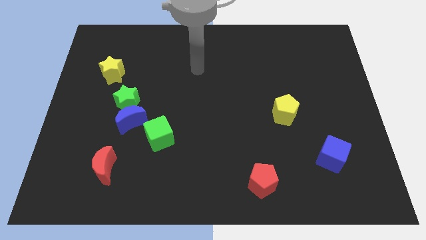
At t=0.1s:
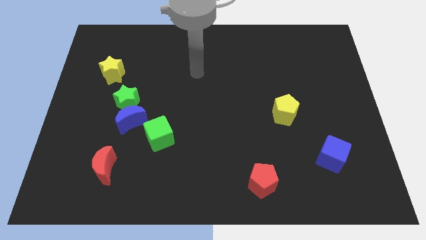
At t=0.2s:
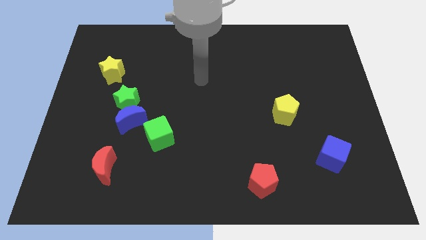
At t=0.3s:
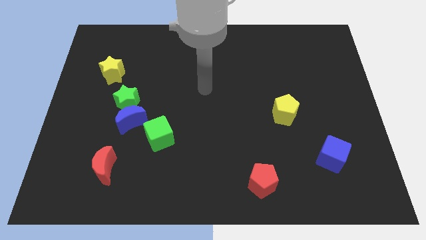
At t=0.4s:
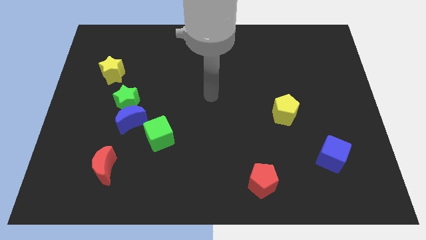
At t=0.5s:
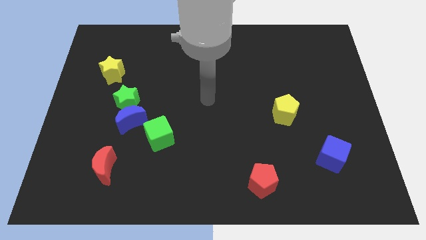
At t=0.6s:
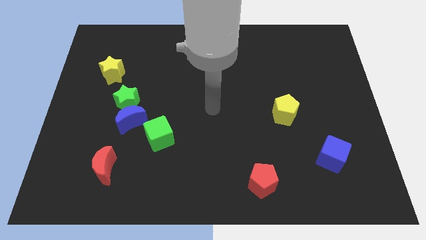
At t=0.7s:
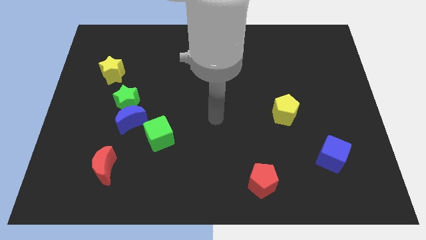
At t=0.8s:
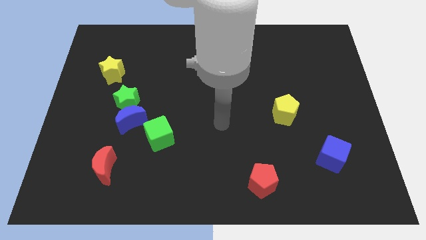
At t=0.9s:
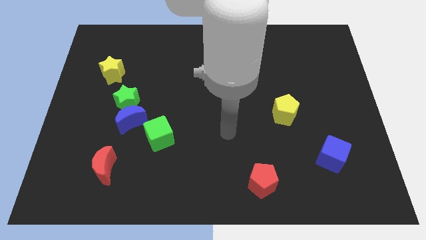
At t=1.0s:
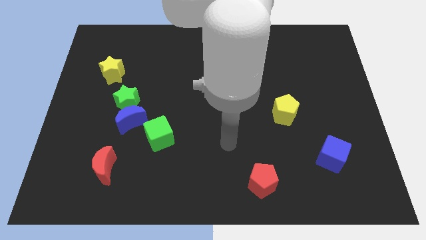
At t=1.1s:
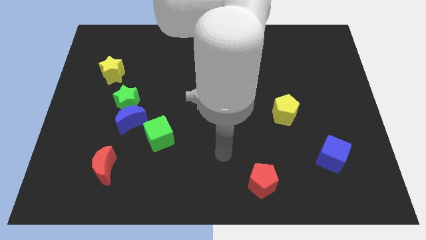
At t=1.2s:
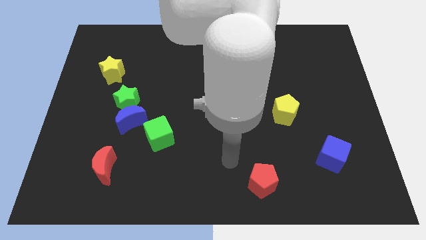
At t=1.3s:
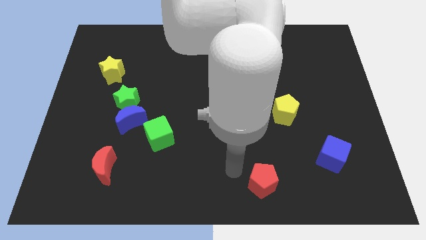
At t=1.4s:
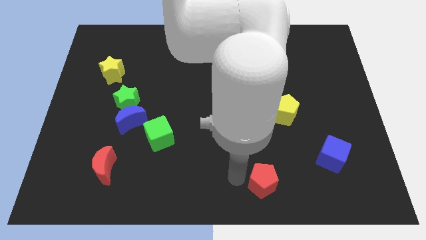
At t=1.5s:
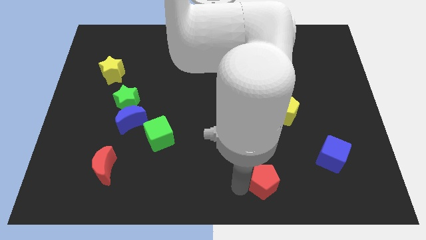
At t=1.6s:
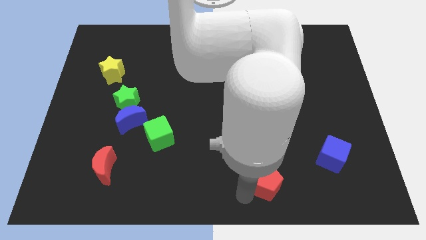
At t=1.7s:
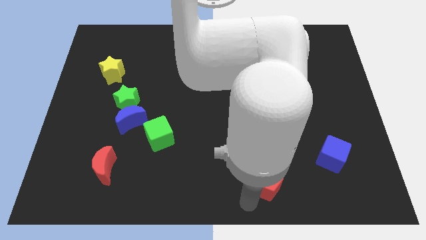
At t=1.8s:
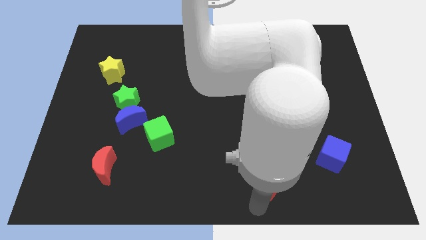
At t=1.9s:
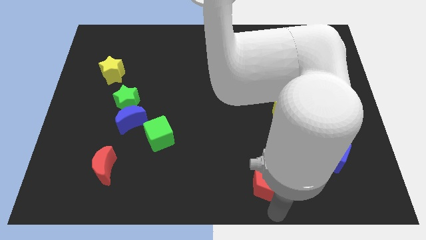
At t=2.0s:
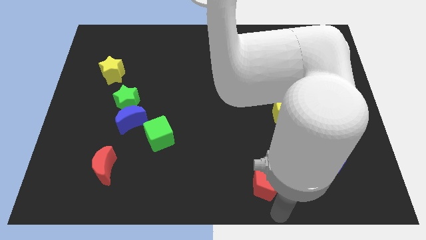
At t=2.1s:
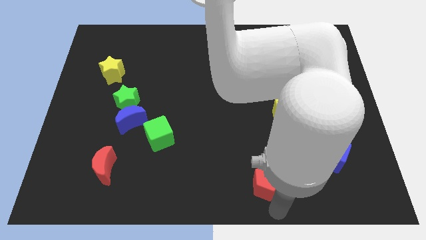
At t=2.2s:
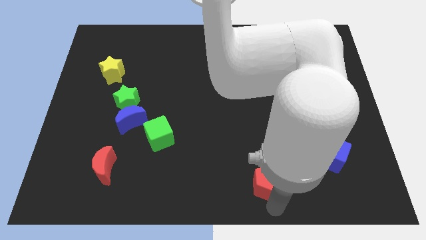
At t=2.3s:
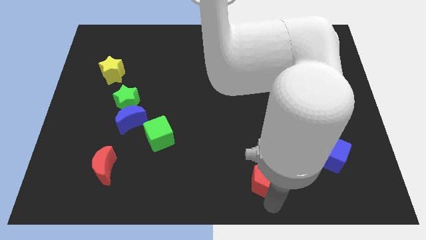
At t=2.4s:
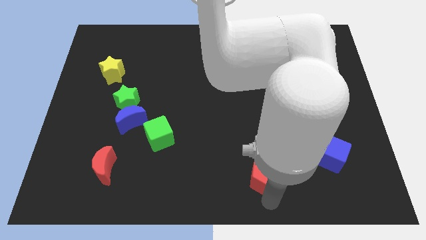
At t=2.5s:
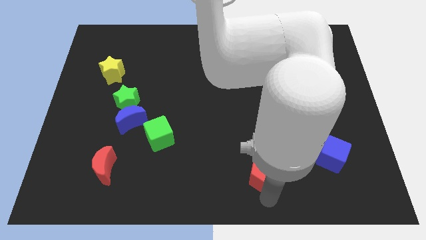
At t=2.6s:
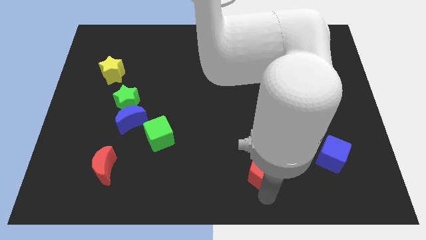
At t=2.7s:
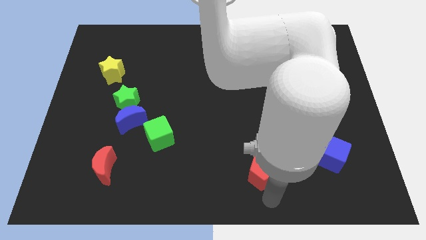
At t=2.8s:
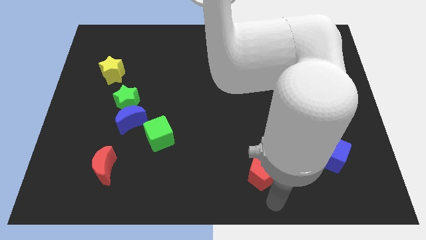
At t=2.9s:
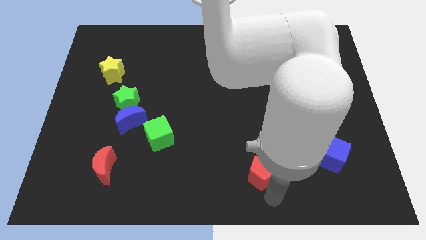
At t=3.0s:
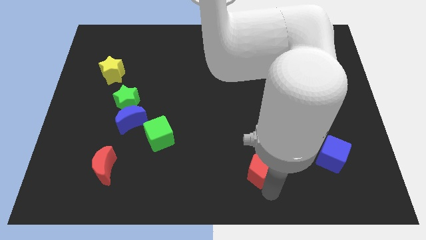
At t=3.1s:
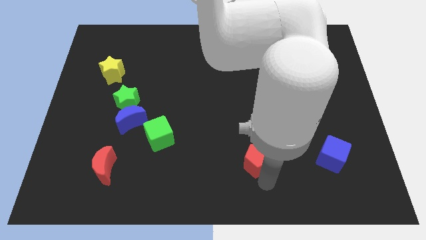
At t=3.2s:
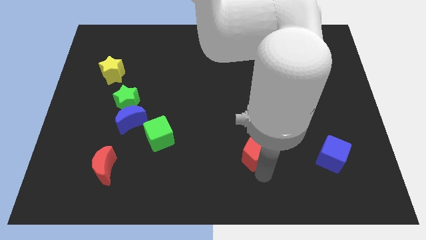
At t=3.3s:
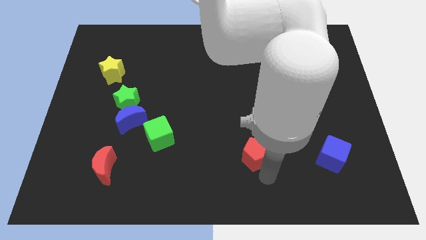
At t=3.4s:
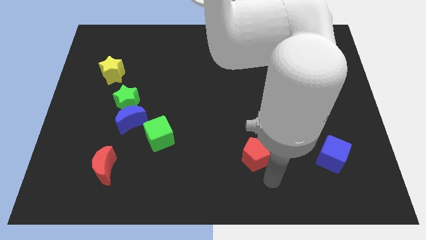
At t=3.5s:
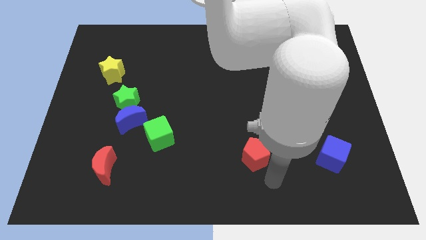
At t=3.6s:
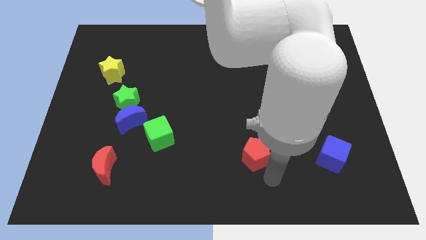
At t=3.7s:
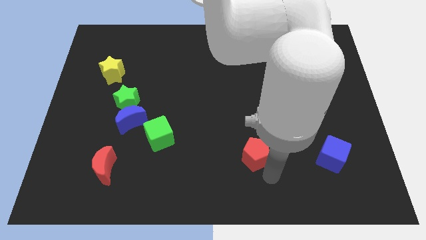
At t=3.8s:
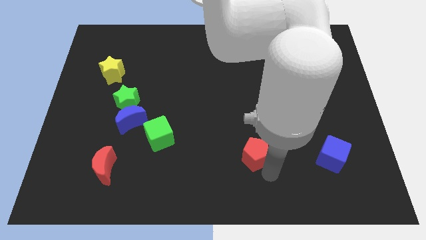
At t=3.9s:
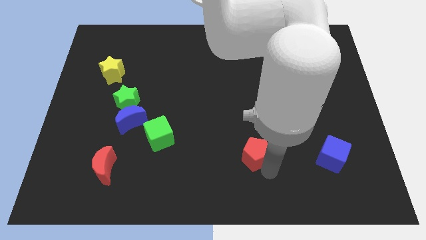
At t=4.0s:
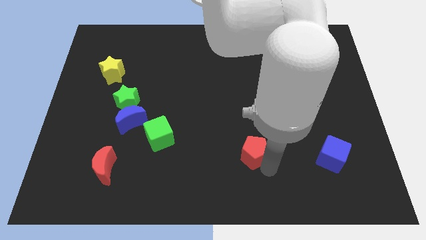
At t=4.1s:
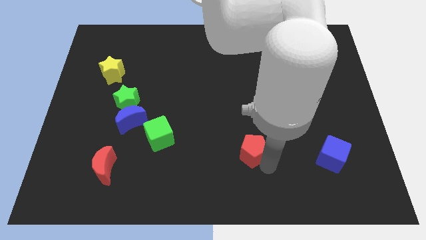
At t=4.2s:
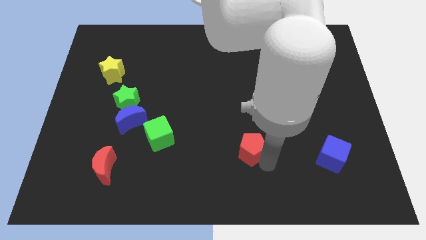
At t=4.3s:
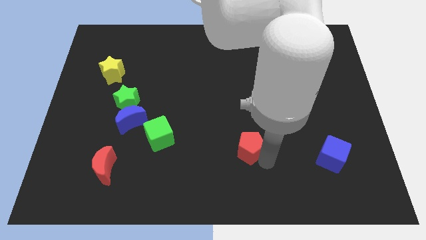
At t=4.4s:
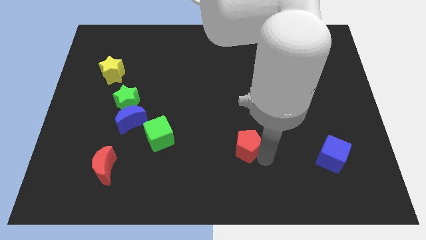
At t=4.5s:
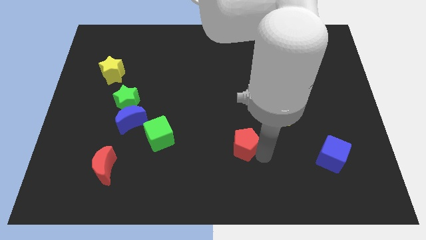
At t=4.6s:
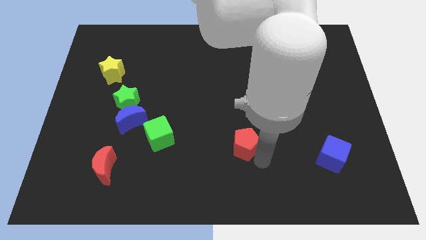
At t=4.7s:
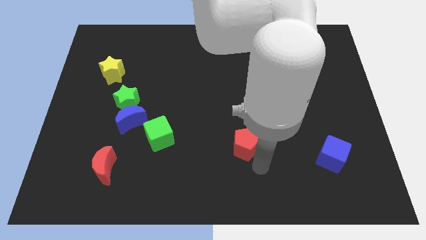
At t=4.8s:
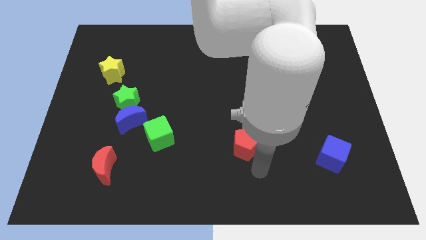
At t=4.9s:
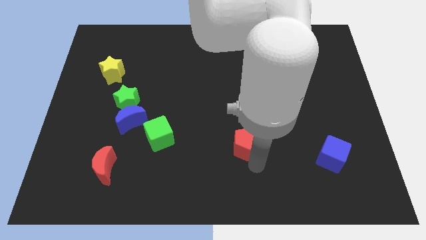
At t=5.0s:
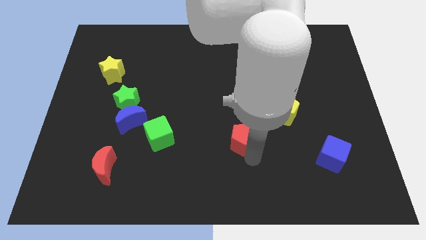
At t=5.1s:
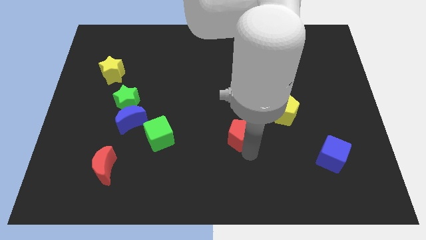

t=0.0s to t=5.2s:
slide the red pentagon to the center
